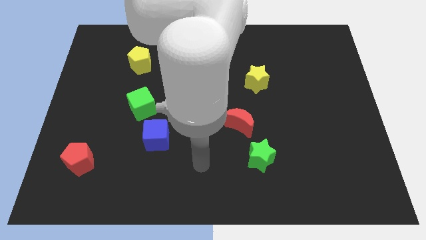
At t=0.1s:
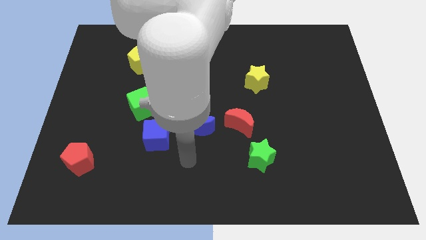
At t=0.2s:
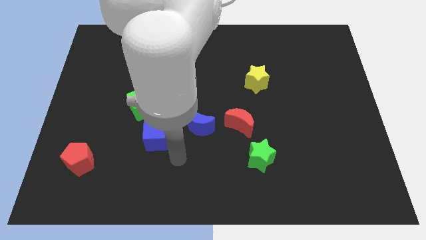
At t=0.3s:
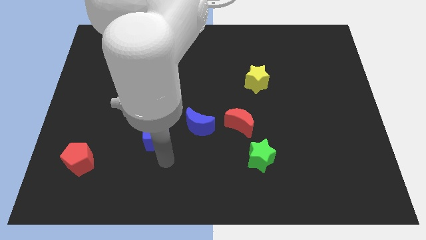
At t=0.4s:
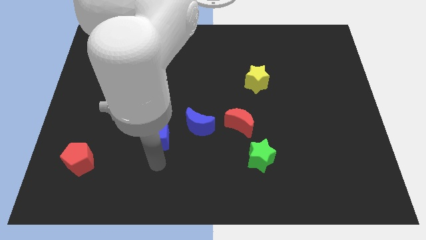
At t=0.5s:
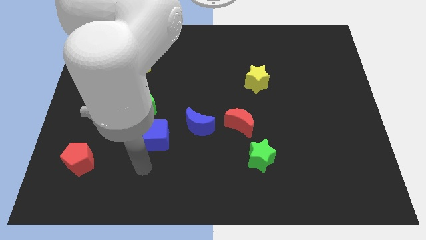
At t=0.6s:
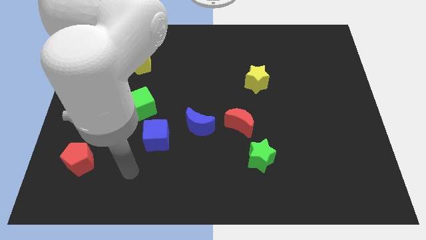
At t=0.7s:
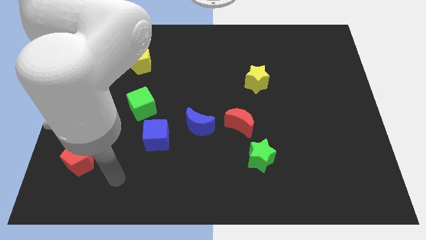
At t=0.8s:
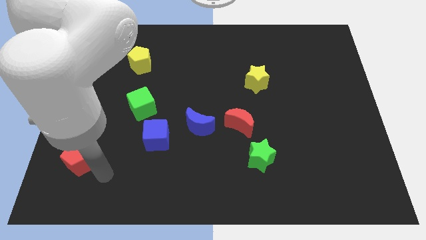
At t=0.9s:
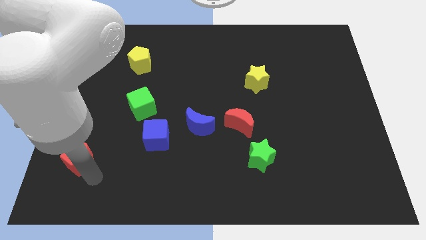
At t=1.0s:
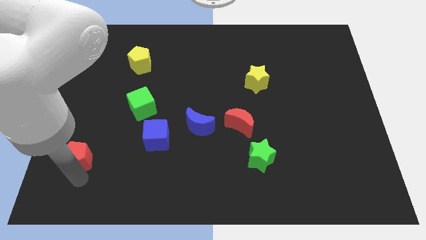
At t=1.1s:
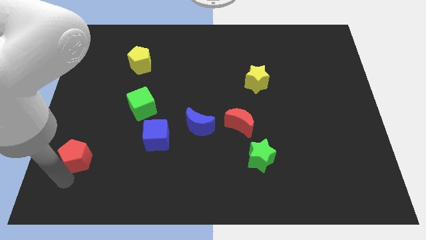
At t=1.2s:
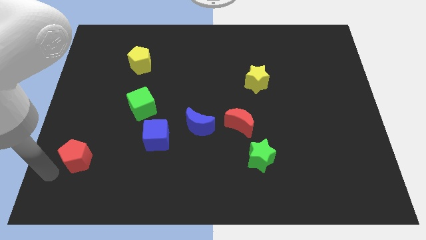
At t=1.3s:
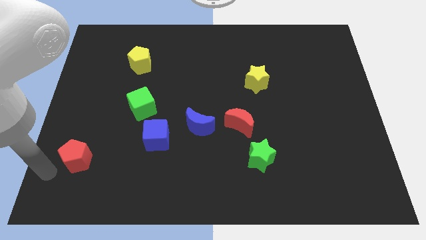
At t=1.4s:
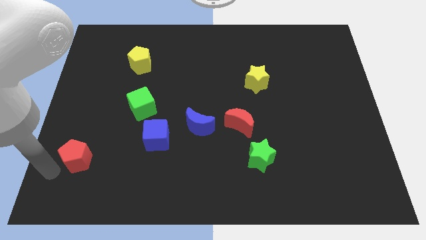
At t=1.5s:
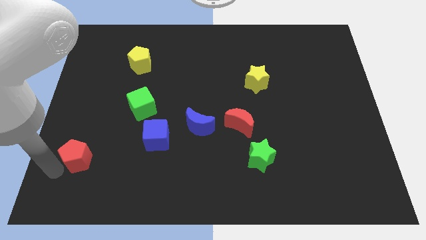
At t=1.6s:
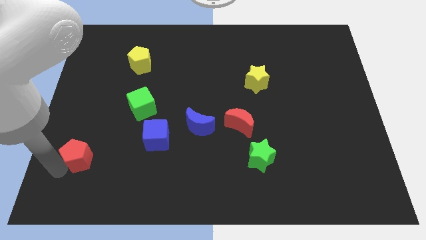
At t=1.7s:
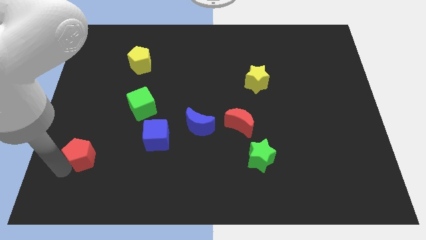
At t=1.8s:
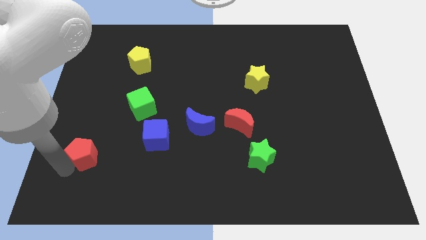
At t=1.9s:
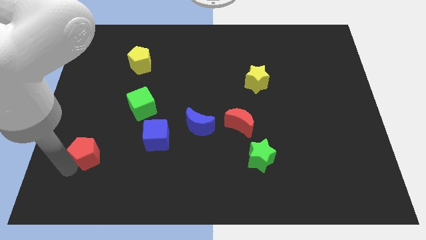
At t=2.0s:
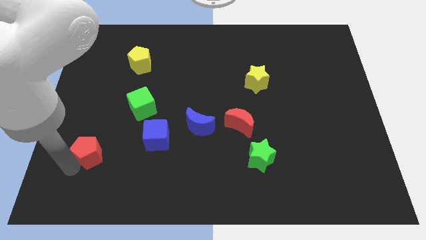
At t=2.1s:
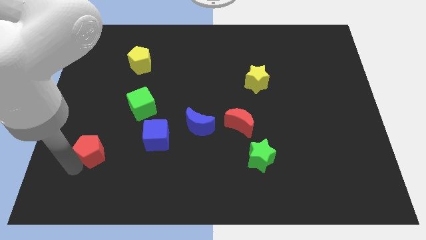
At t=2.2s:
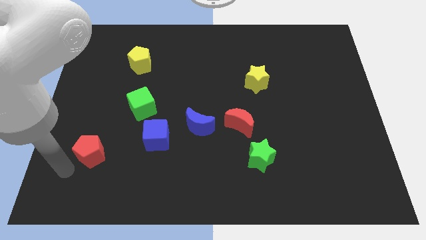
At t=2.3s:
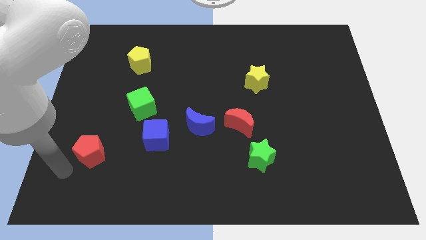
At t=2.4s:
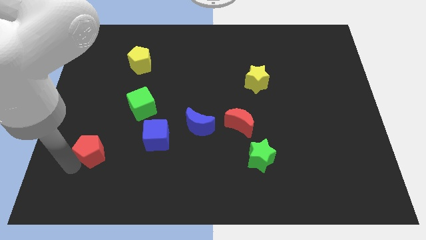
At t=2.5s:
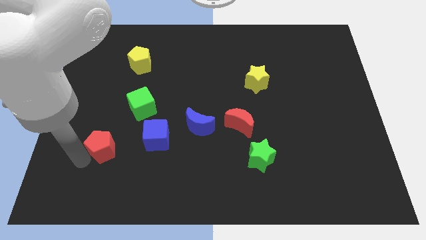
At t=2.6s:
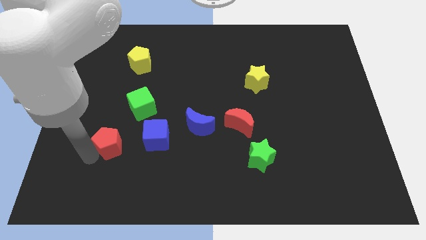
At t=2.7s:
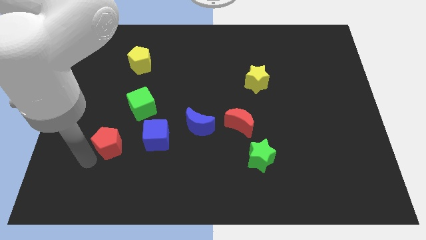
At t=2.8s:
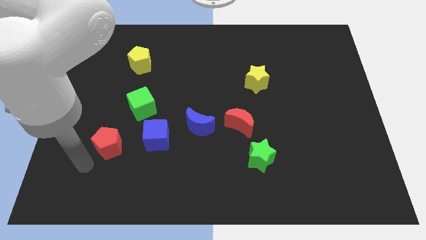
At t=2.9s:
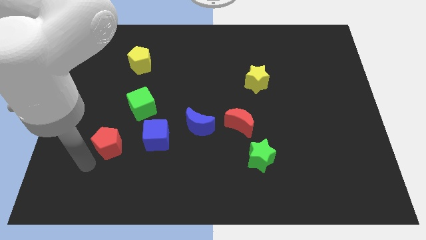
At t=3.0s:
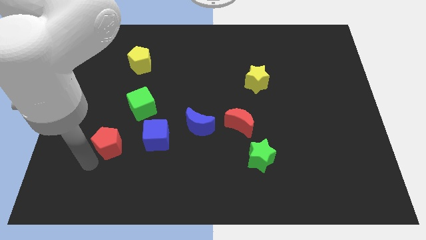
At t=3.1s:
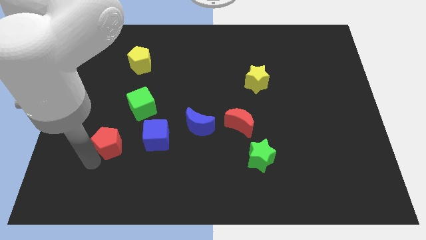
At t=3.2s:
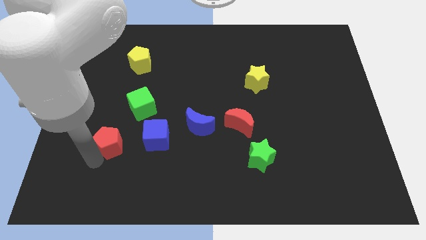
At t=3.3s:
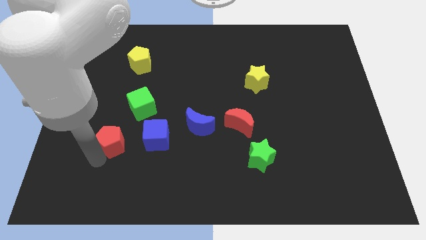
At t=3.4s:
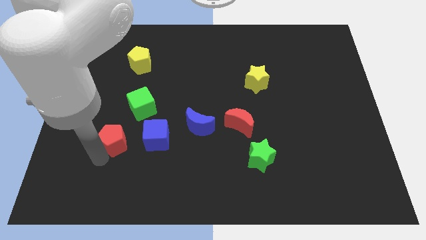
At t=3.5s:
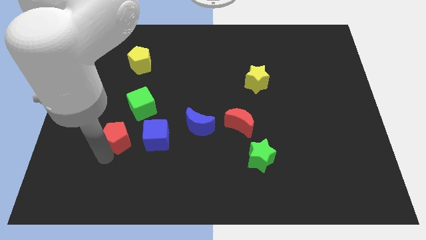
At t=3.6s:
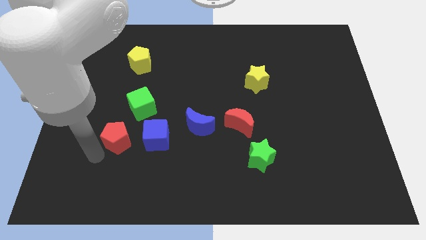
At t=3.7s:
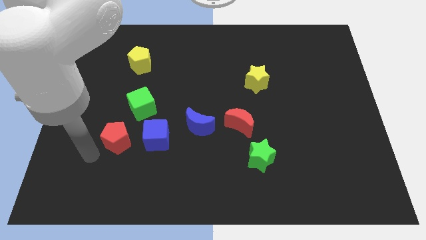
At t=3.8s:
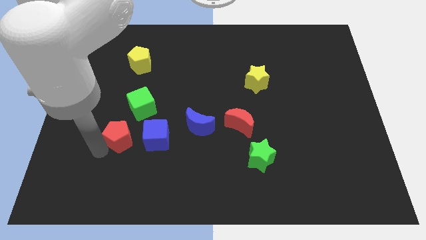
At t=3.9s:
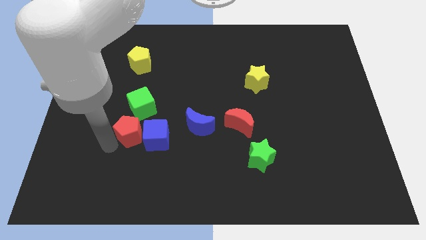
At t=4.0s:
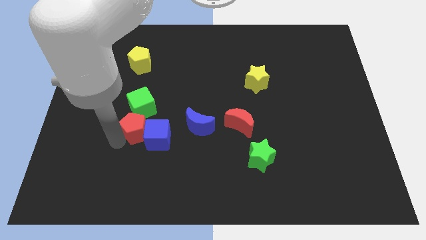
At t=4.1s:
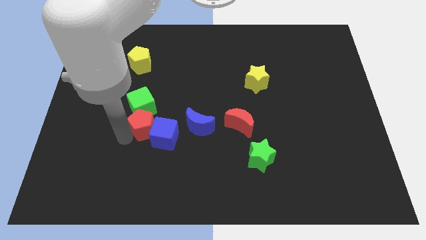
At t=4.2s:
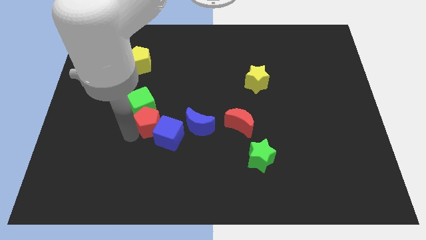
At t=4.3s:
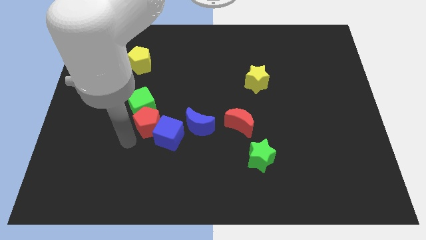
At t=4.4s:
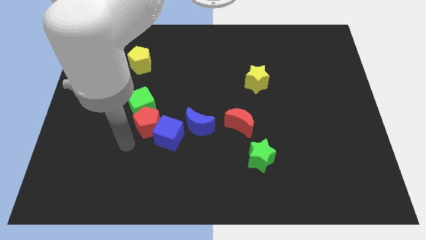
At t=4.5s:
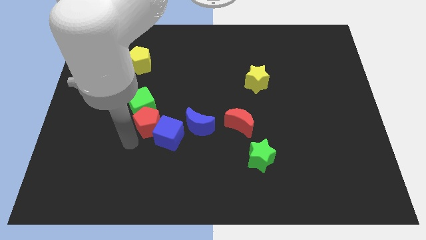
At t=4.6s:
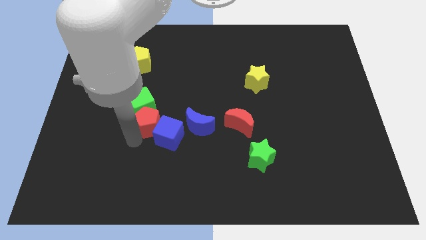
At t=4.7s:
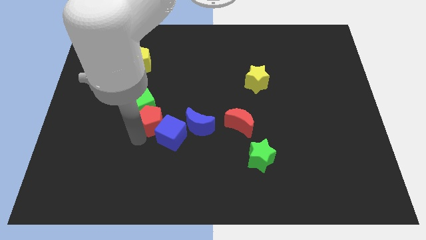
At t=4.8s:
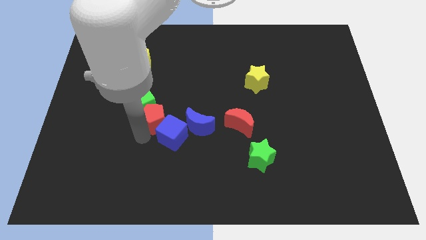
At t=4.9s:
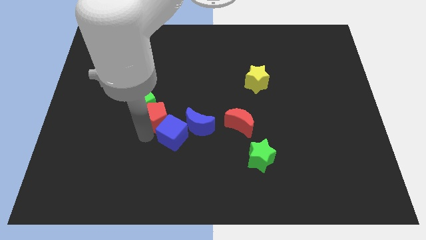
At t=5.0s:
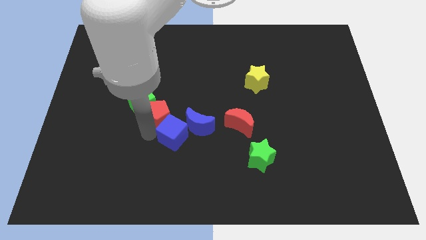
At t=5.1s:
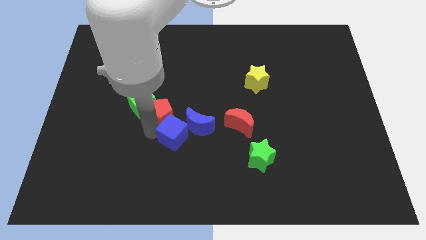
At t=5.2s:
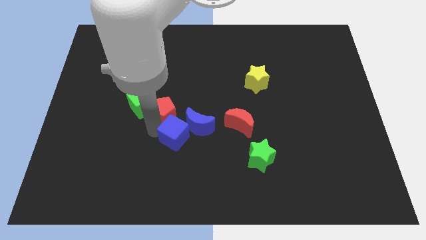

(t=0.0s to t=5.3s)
move the red pentagon up and to the right

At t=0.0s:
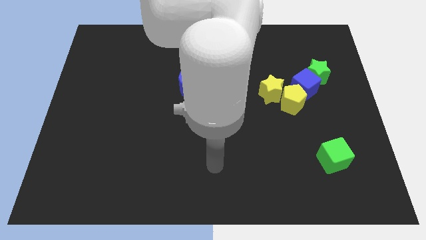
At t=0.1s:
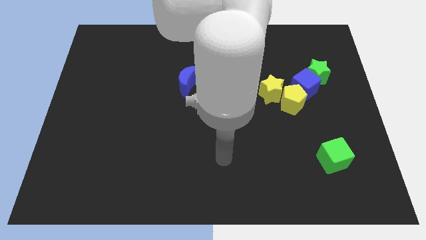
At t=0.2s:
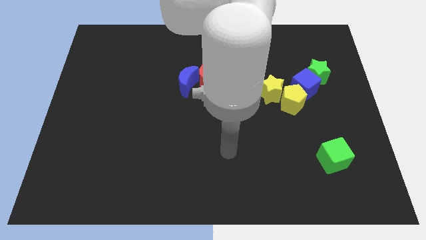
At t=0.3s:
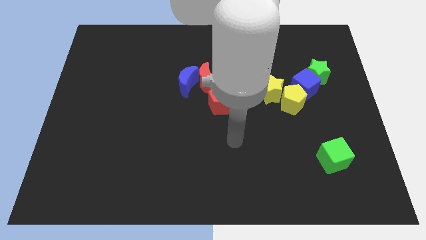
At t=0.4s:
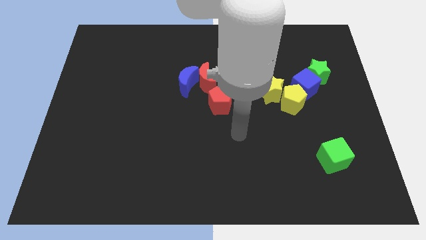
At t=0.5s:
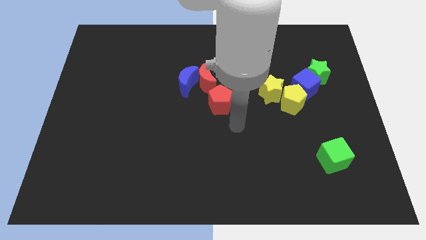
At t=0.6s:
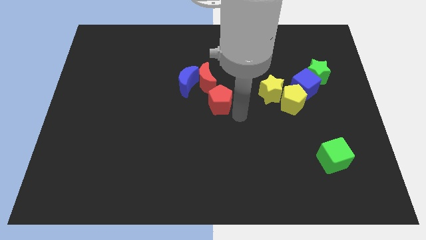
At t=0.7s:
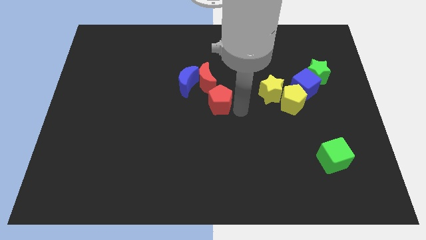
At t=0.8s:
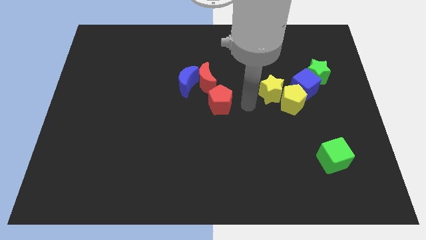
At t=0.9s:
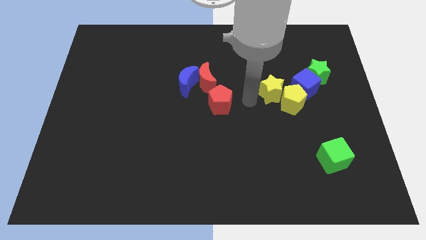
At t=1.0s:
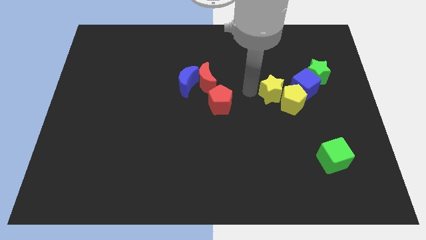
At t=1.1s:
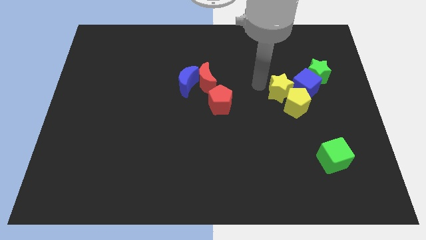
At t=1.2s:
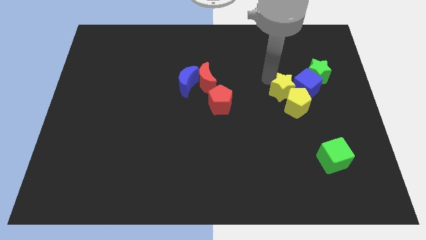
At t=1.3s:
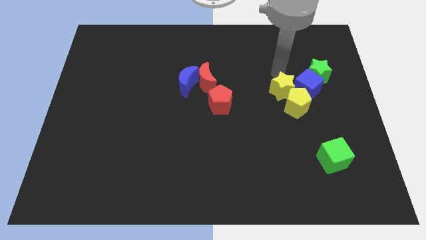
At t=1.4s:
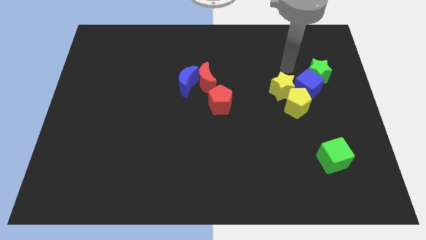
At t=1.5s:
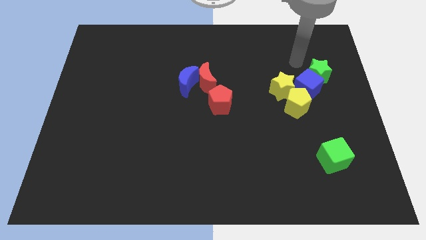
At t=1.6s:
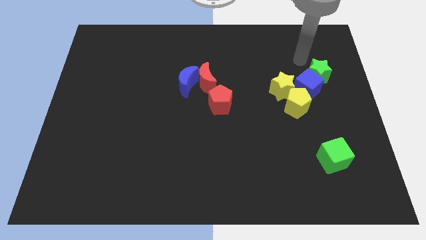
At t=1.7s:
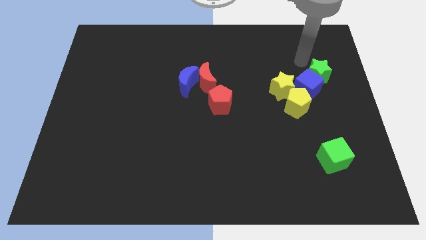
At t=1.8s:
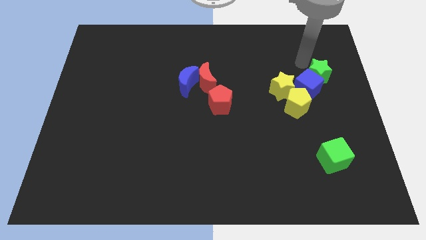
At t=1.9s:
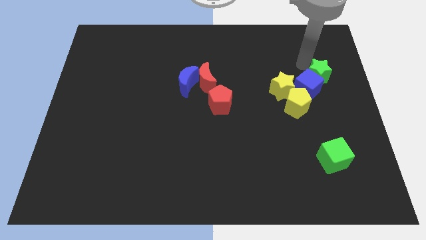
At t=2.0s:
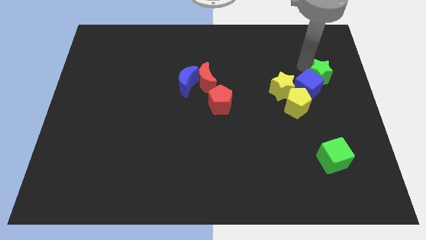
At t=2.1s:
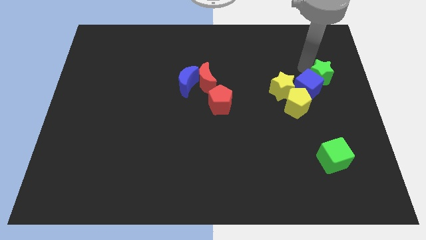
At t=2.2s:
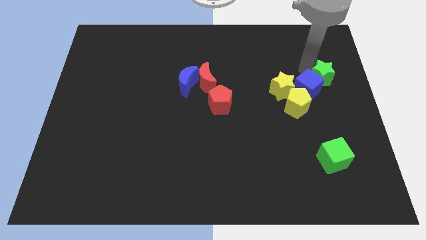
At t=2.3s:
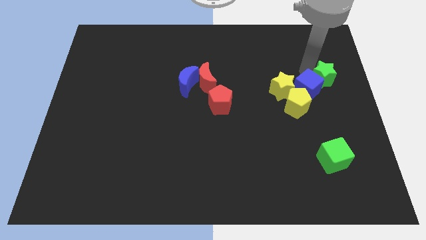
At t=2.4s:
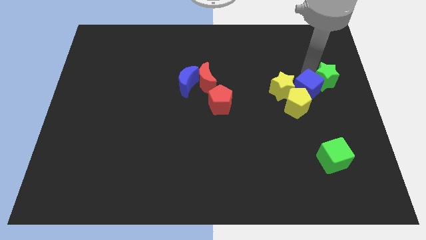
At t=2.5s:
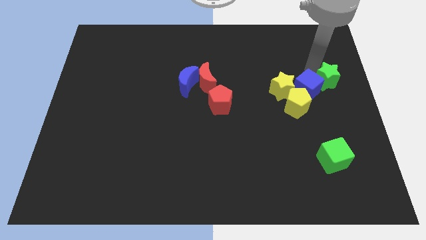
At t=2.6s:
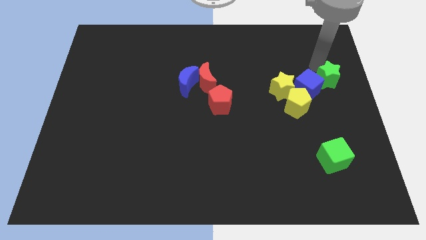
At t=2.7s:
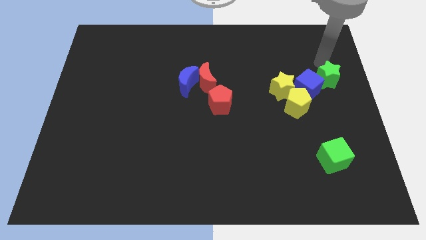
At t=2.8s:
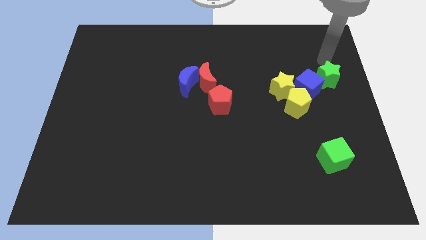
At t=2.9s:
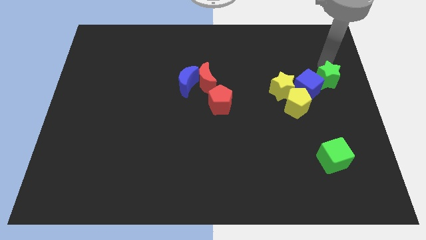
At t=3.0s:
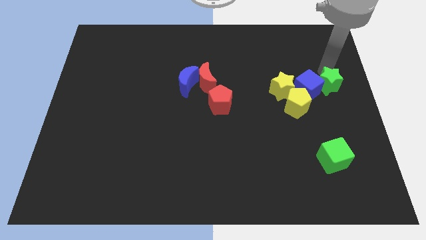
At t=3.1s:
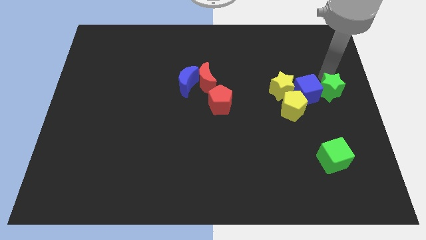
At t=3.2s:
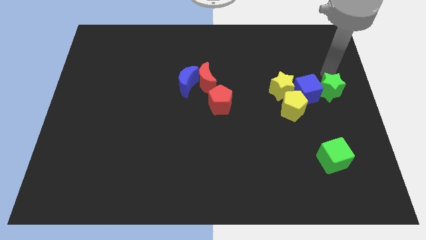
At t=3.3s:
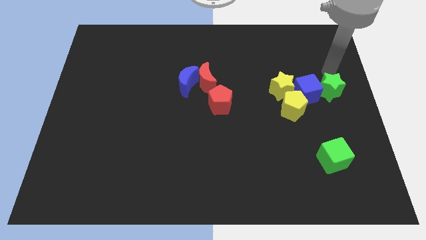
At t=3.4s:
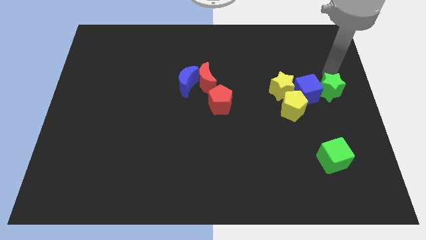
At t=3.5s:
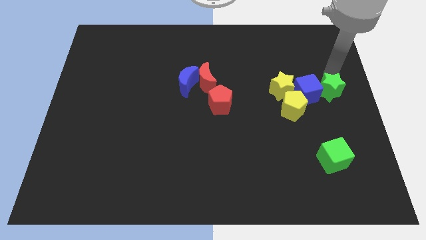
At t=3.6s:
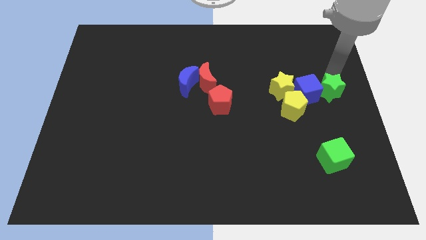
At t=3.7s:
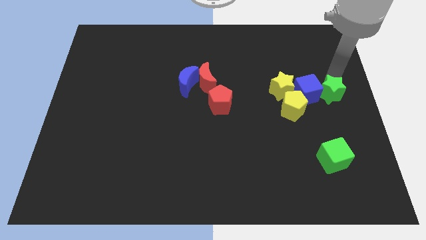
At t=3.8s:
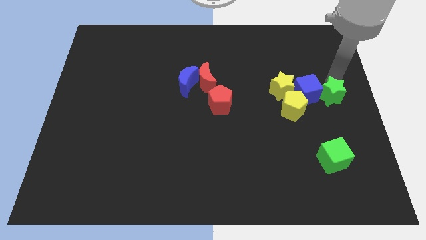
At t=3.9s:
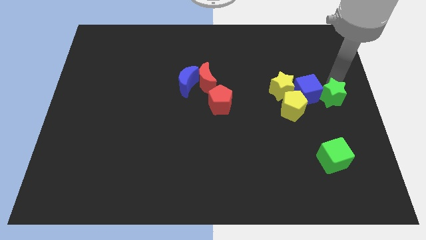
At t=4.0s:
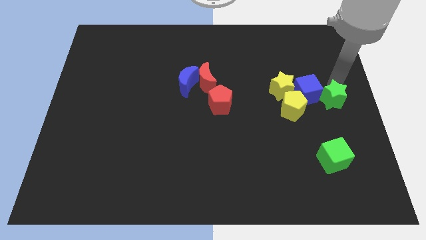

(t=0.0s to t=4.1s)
slide the green star a little bit down
